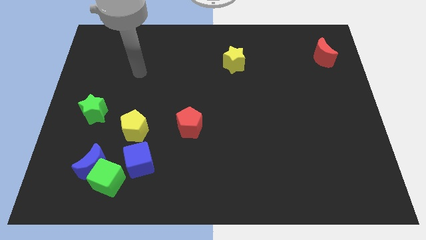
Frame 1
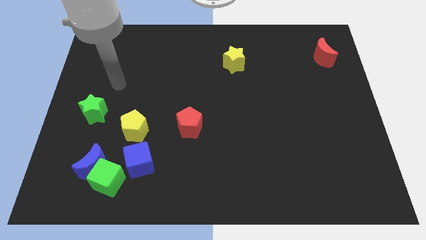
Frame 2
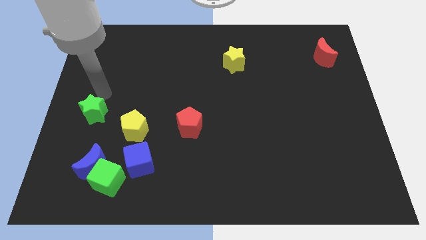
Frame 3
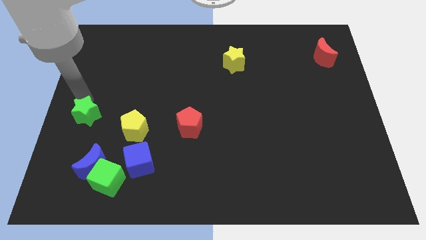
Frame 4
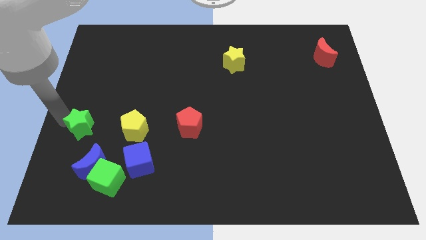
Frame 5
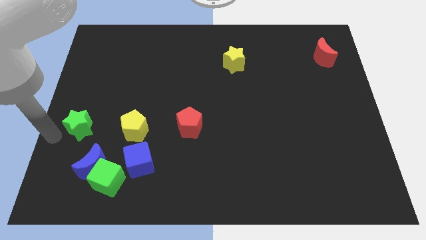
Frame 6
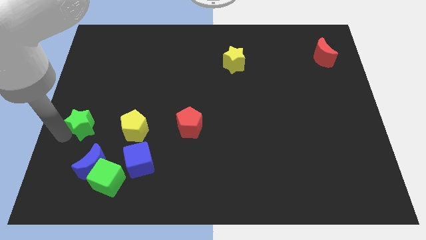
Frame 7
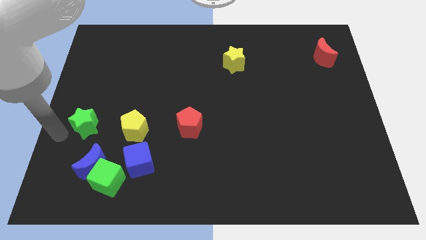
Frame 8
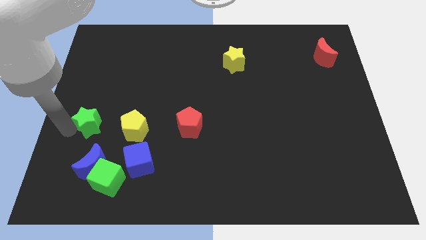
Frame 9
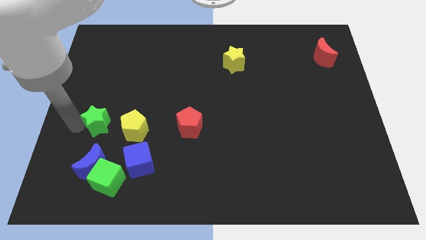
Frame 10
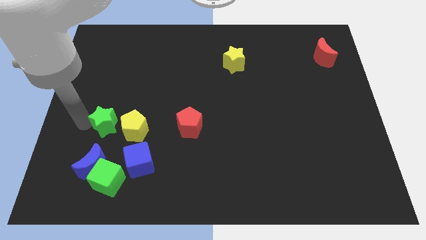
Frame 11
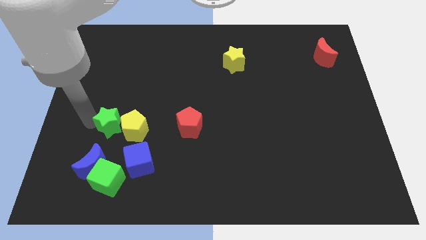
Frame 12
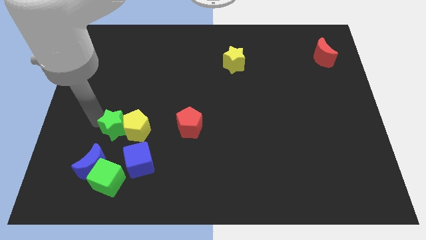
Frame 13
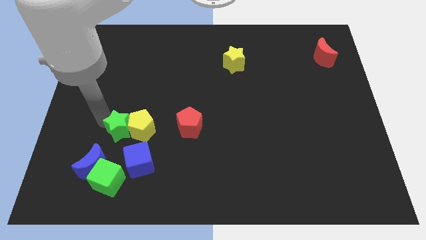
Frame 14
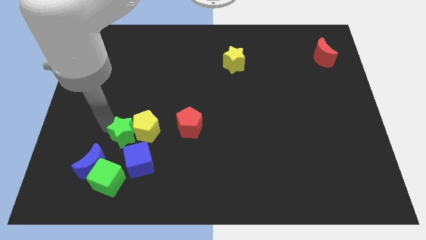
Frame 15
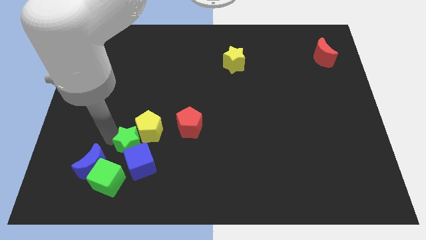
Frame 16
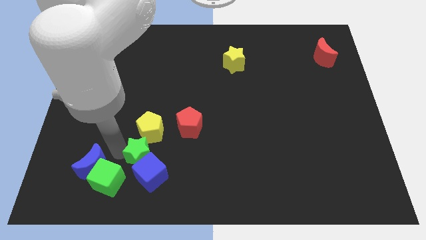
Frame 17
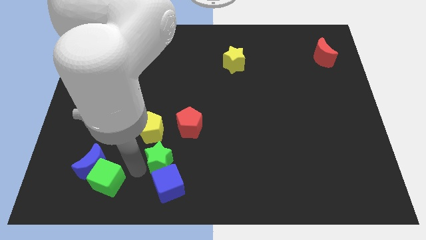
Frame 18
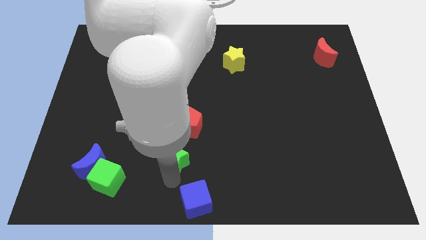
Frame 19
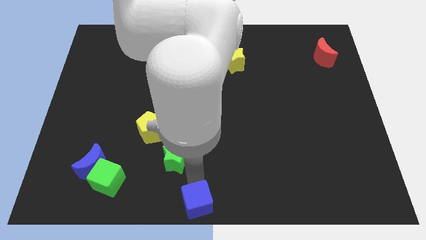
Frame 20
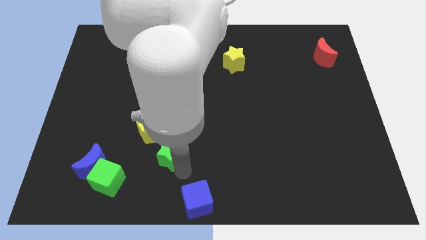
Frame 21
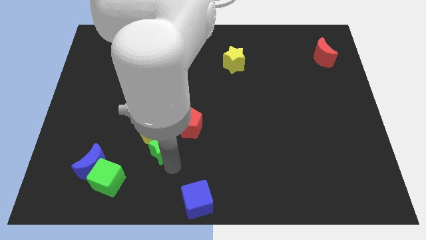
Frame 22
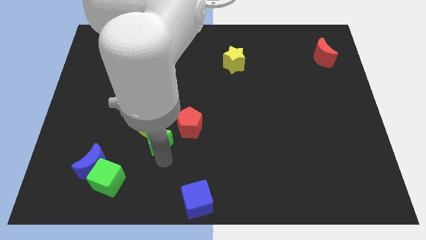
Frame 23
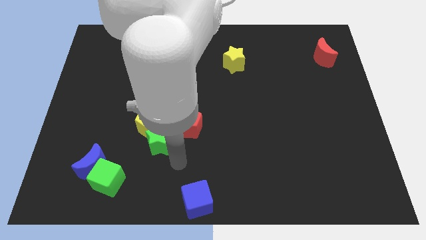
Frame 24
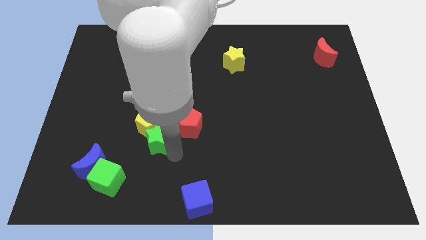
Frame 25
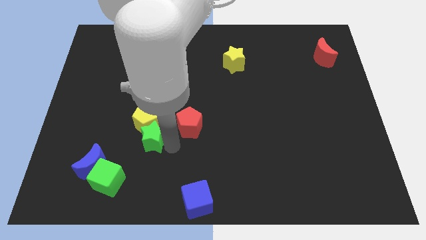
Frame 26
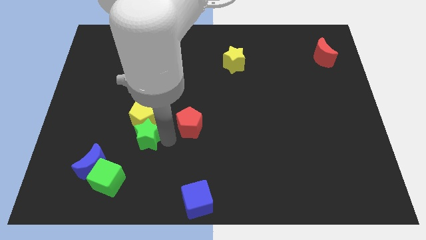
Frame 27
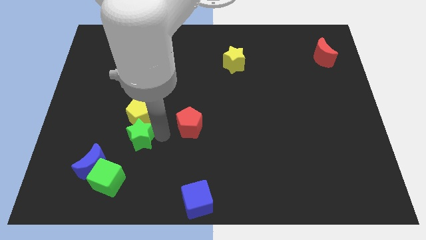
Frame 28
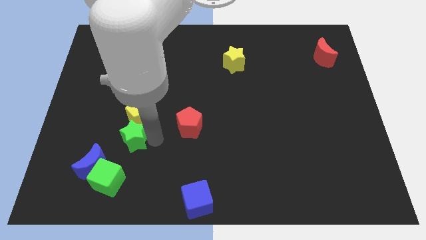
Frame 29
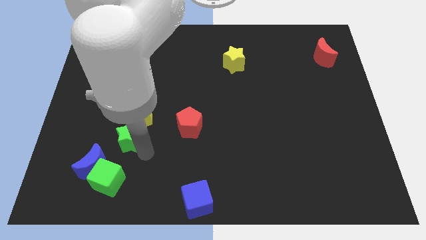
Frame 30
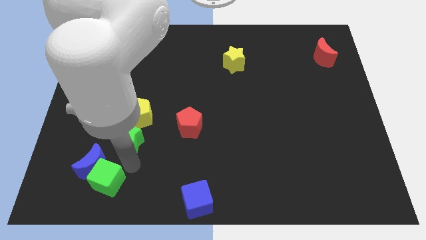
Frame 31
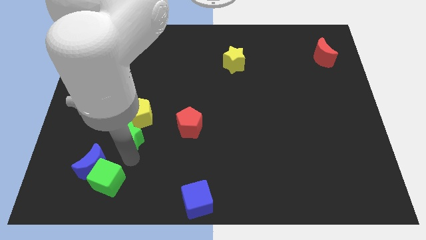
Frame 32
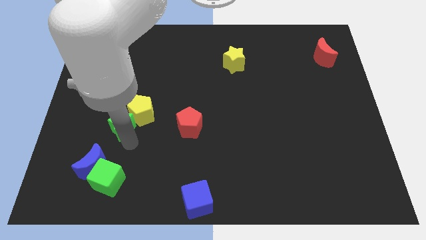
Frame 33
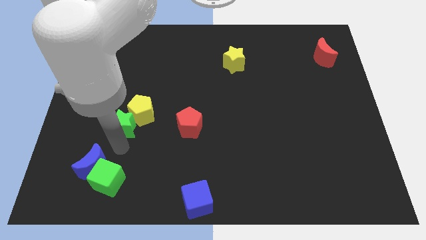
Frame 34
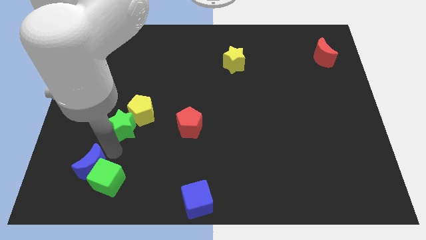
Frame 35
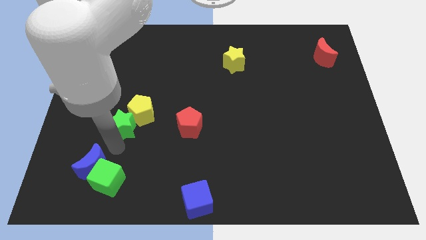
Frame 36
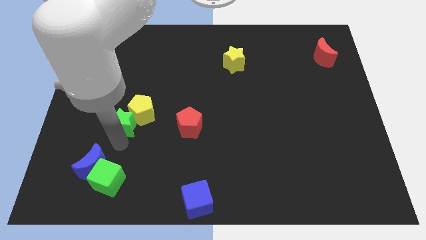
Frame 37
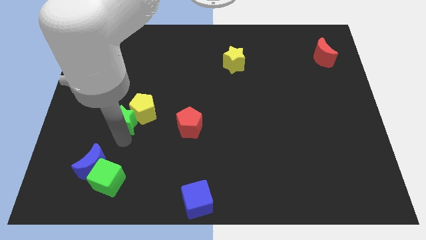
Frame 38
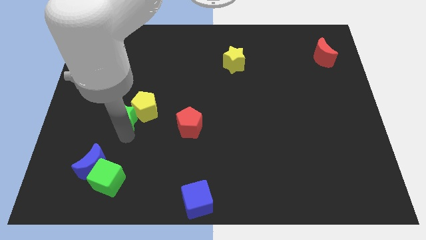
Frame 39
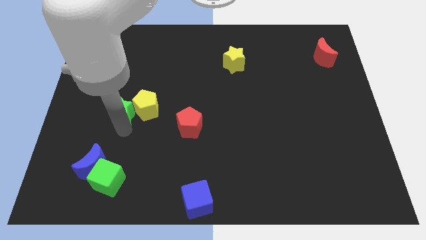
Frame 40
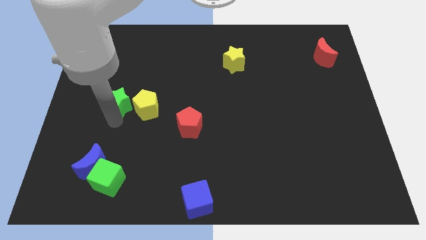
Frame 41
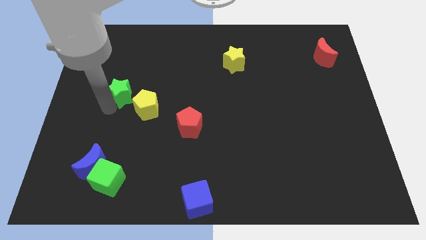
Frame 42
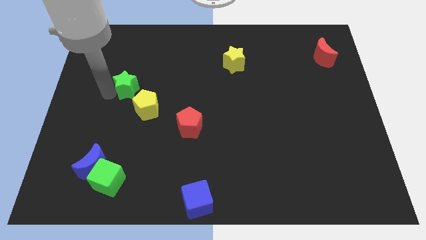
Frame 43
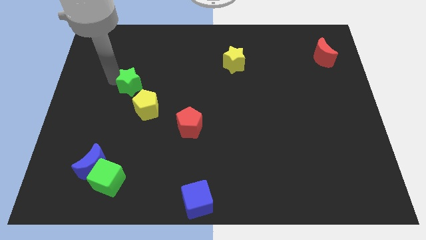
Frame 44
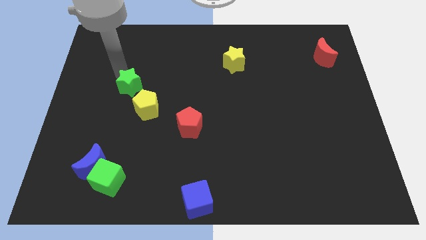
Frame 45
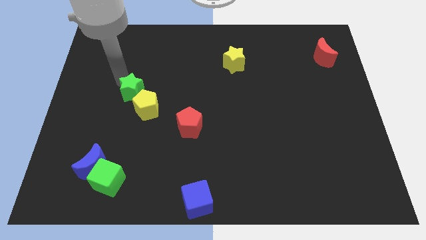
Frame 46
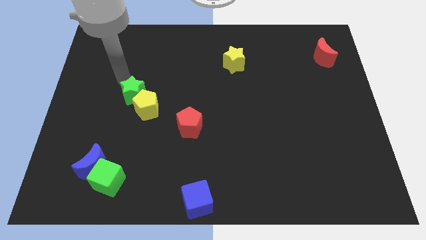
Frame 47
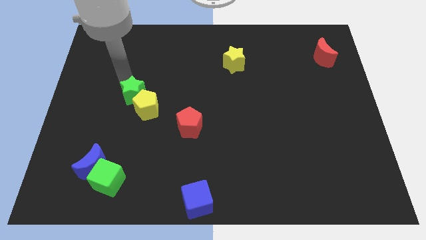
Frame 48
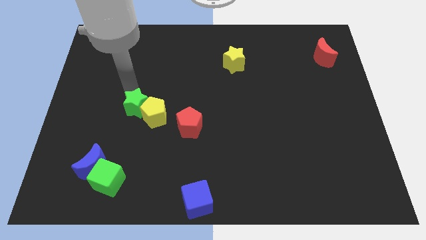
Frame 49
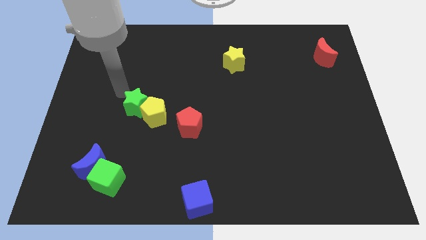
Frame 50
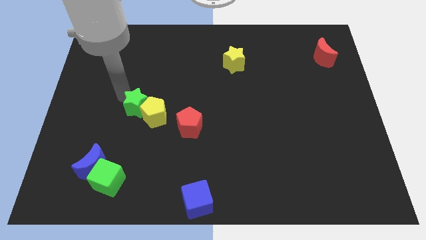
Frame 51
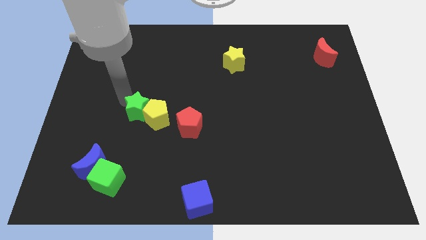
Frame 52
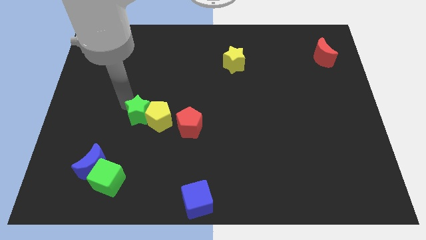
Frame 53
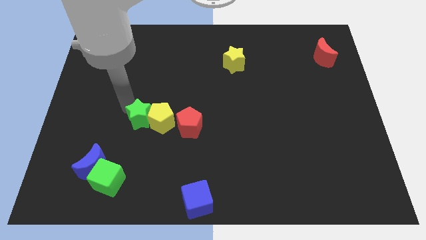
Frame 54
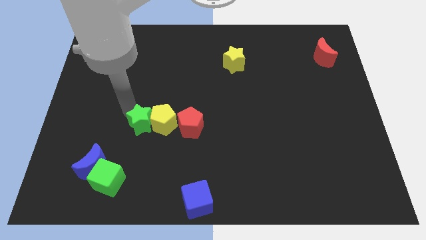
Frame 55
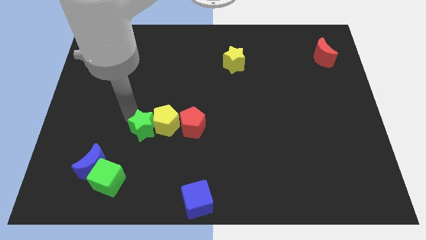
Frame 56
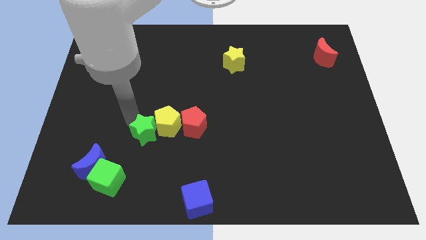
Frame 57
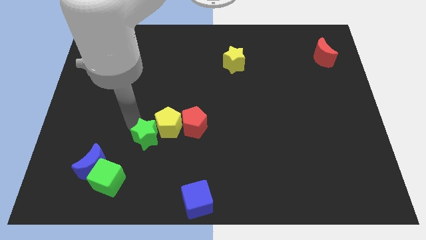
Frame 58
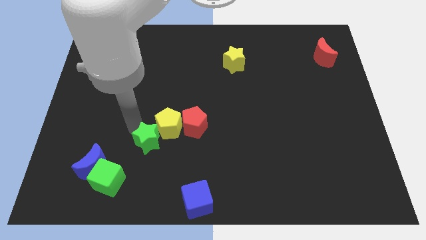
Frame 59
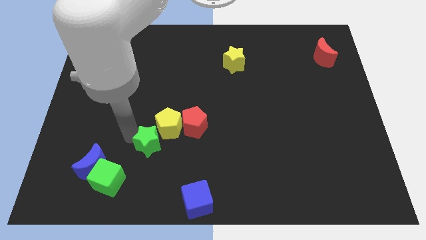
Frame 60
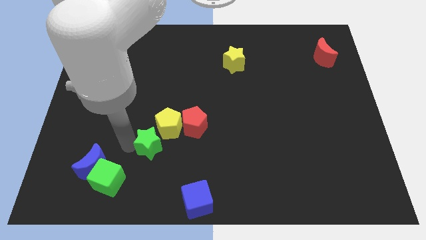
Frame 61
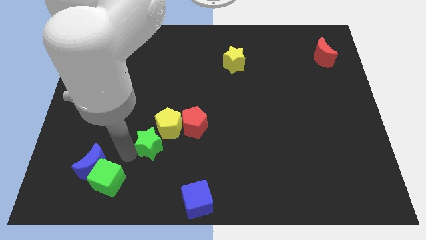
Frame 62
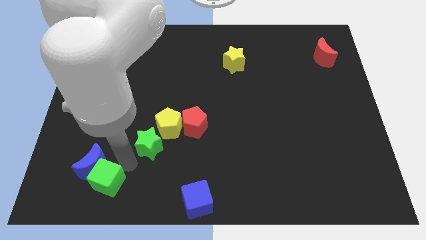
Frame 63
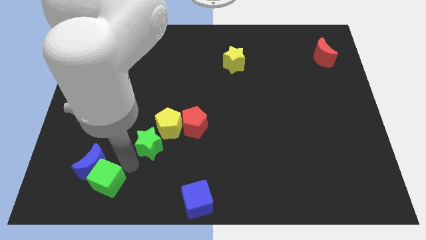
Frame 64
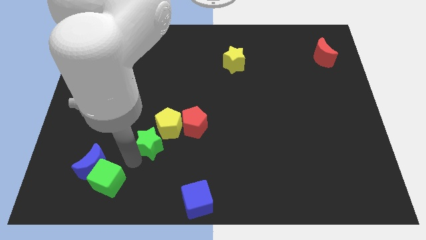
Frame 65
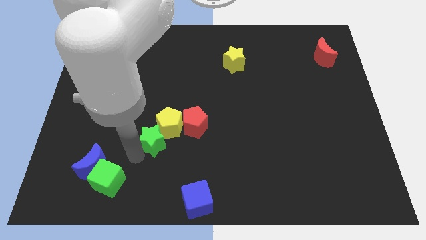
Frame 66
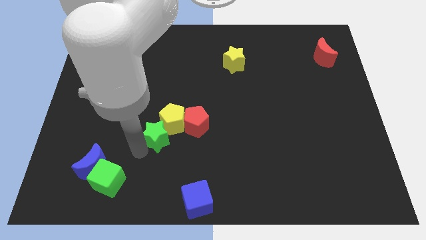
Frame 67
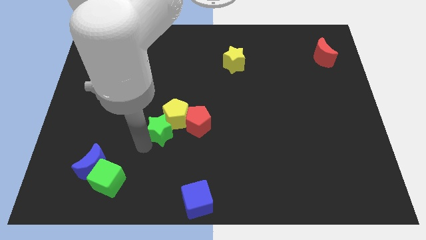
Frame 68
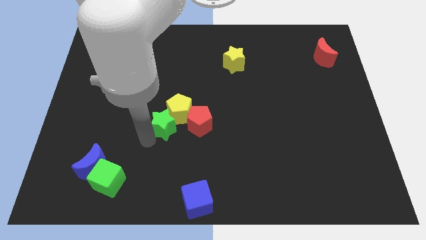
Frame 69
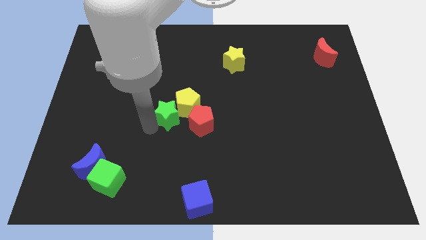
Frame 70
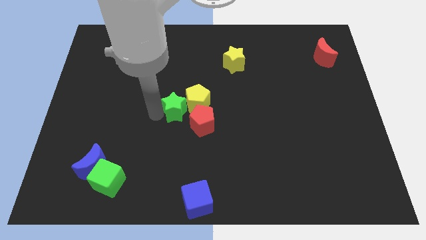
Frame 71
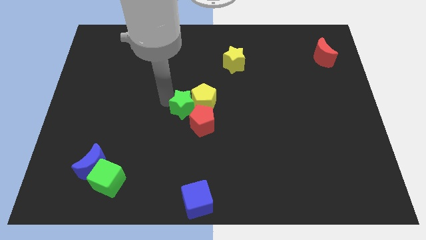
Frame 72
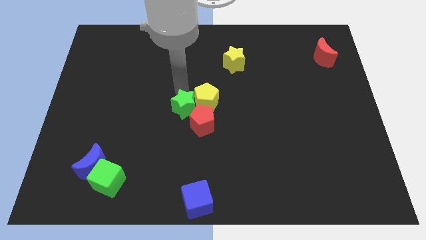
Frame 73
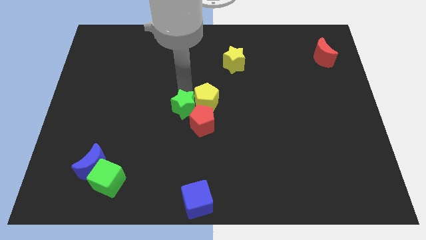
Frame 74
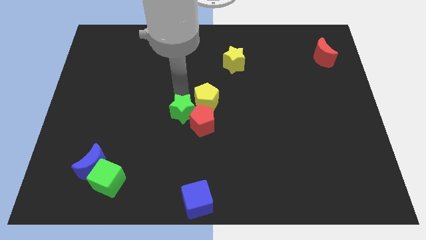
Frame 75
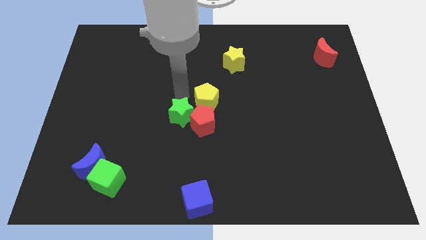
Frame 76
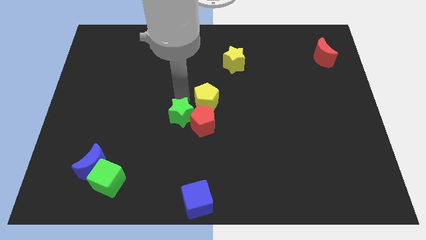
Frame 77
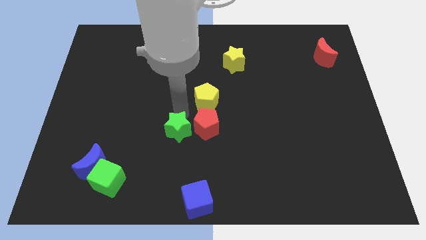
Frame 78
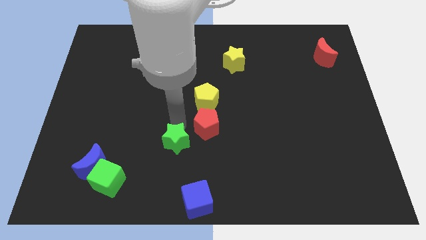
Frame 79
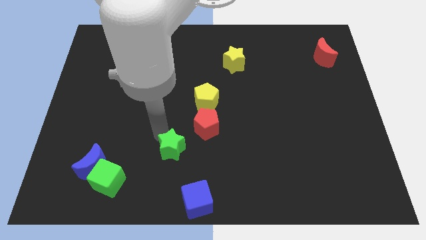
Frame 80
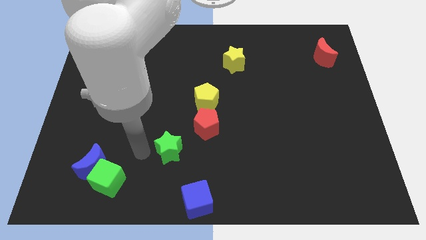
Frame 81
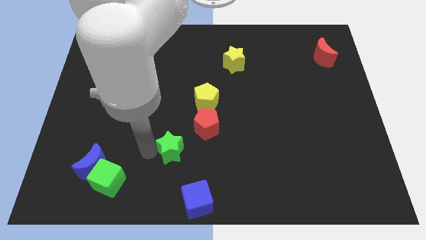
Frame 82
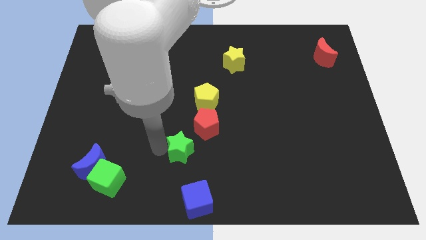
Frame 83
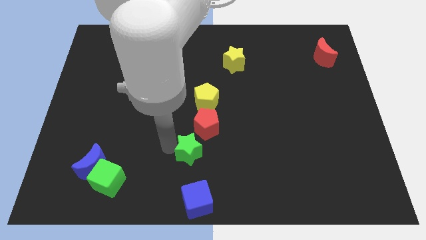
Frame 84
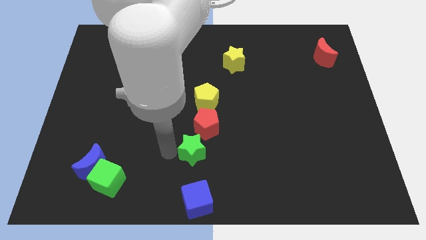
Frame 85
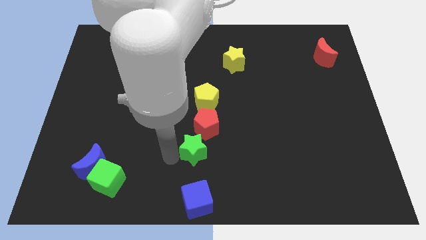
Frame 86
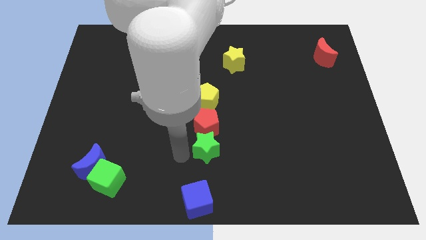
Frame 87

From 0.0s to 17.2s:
put the green star diagonally down and to the right of the red pentagon
